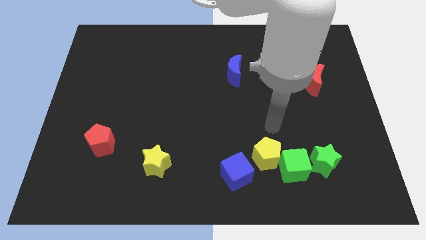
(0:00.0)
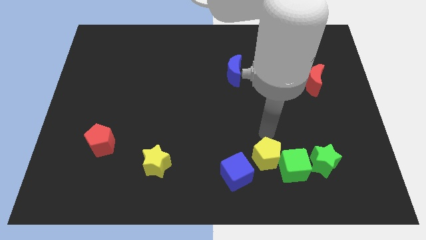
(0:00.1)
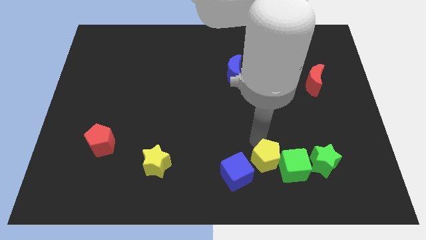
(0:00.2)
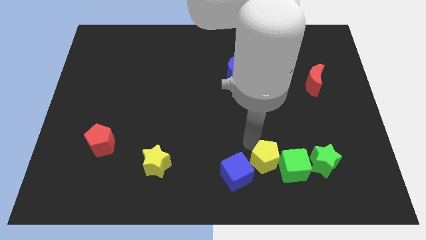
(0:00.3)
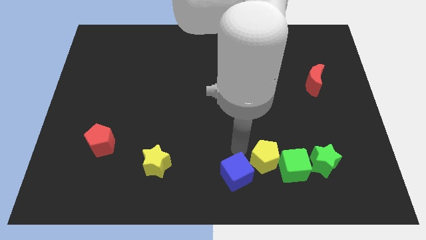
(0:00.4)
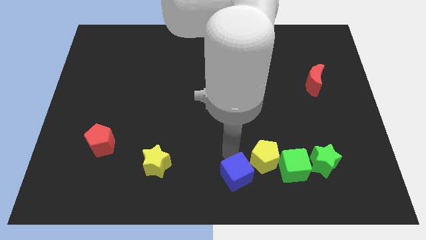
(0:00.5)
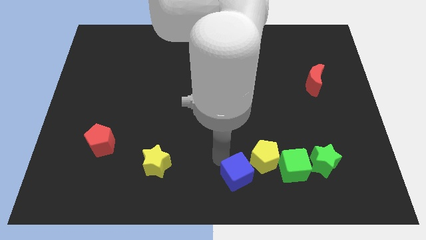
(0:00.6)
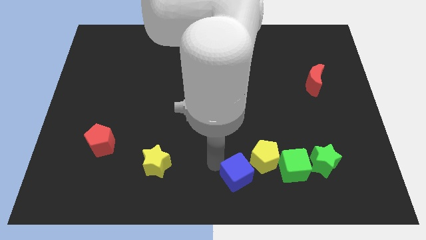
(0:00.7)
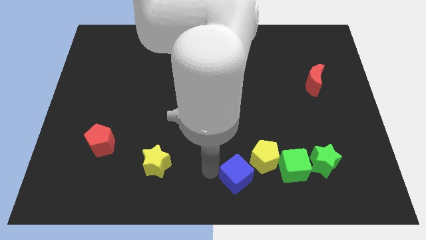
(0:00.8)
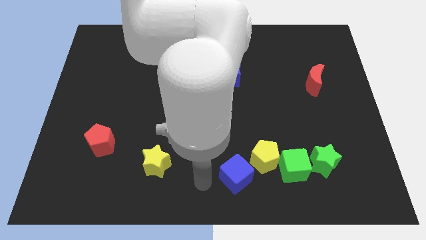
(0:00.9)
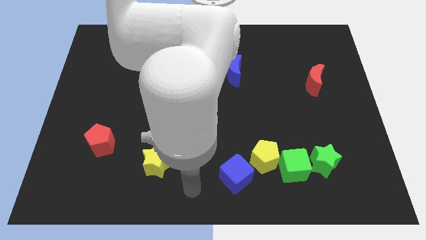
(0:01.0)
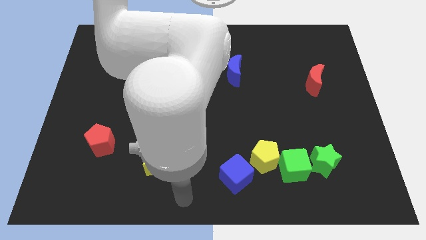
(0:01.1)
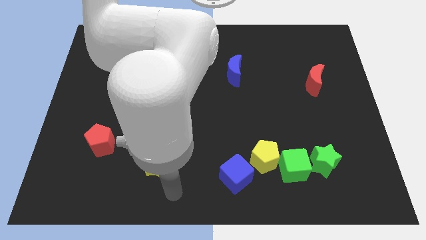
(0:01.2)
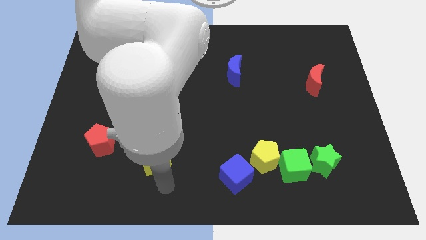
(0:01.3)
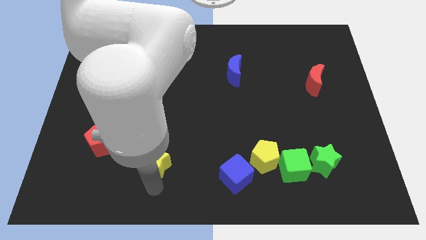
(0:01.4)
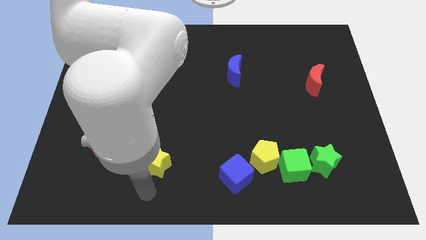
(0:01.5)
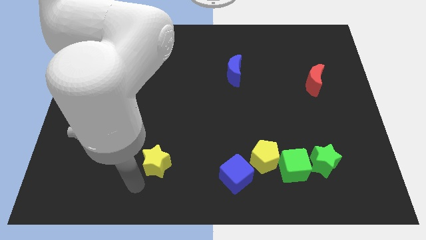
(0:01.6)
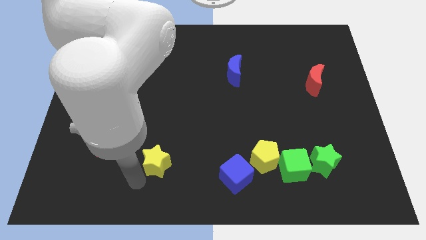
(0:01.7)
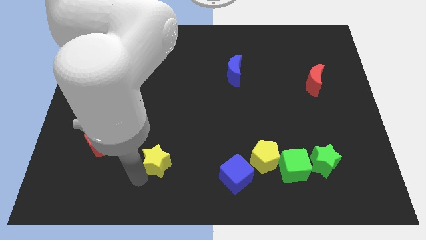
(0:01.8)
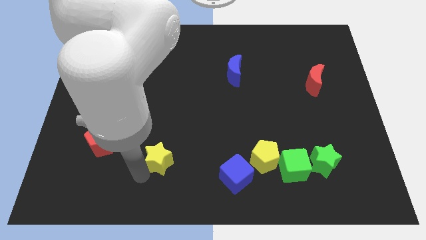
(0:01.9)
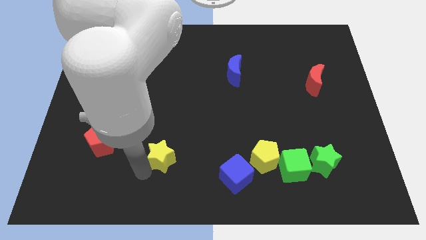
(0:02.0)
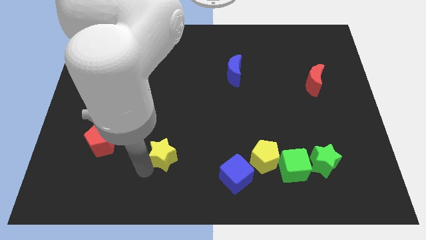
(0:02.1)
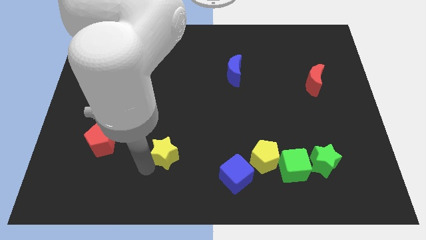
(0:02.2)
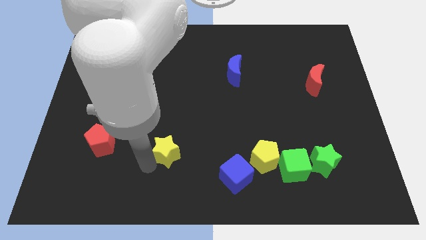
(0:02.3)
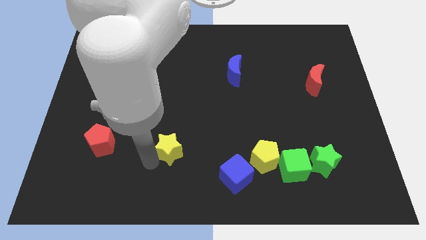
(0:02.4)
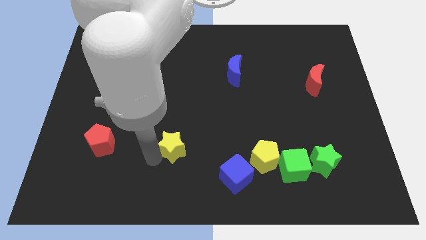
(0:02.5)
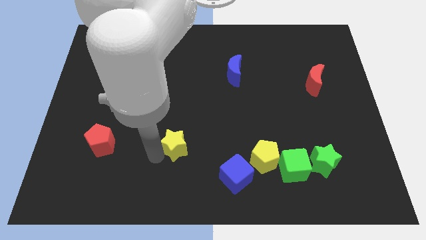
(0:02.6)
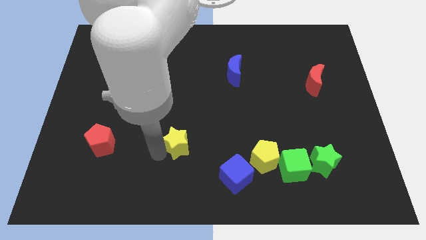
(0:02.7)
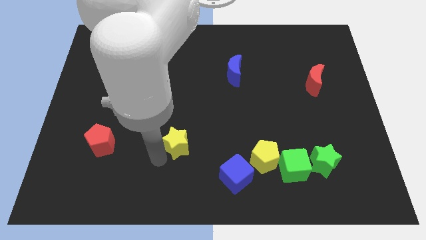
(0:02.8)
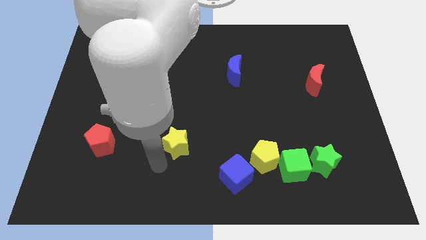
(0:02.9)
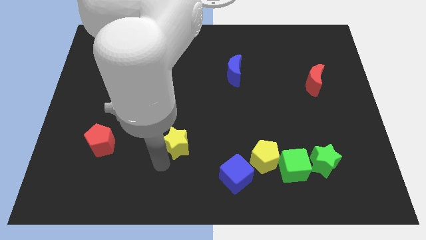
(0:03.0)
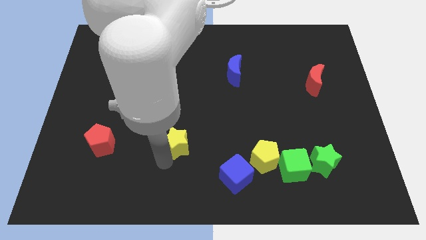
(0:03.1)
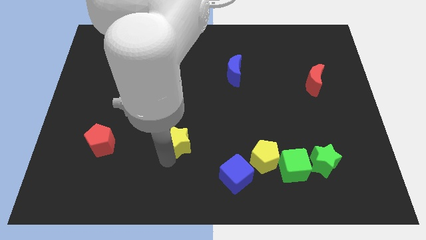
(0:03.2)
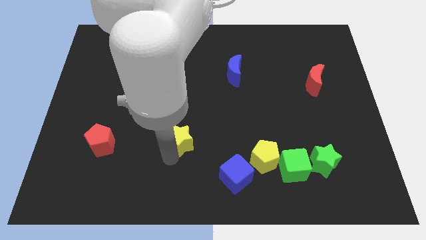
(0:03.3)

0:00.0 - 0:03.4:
slide the yellow star slightly upwards and to the right

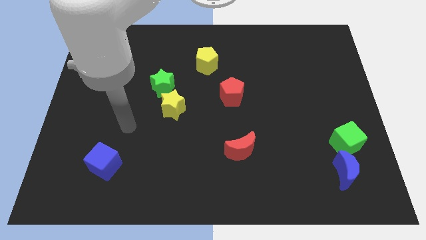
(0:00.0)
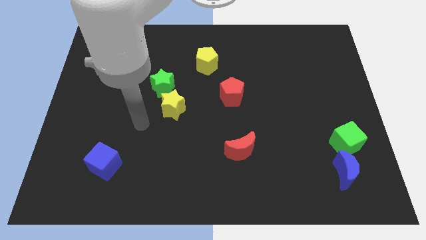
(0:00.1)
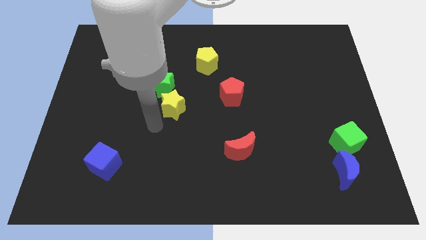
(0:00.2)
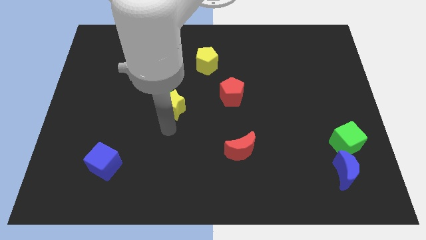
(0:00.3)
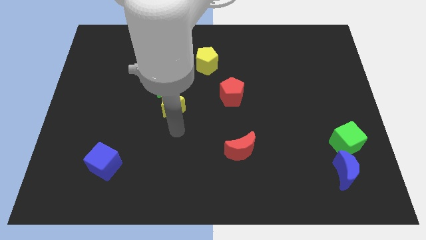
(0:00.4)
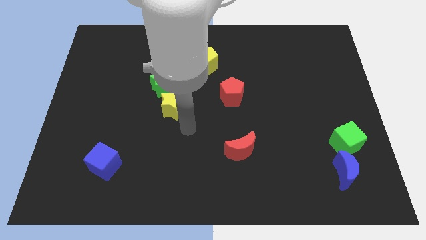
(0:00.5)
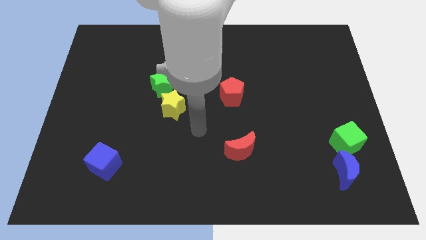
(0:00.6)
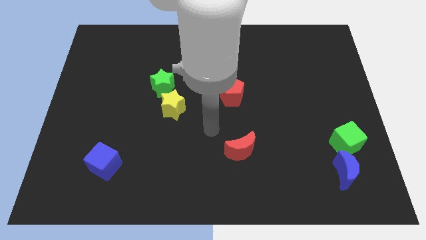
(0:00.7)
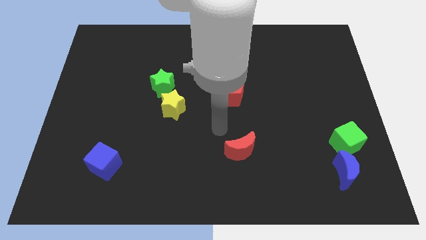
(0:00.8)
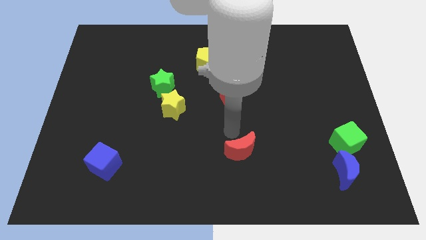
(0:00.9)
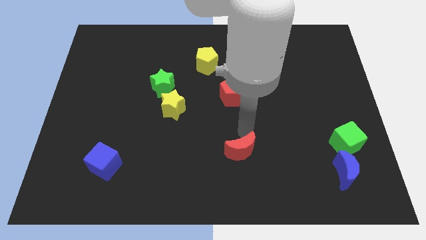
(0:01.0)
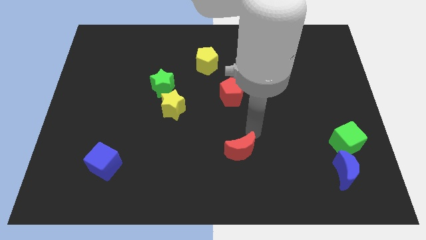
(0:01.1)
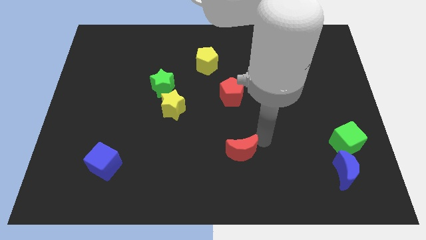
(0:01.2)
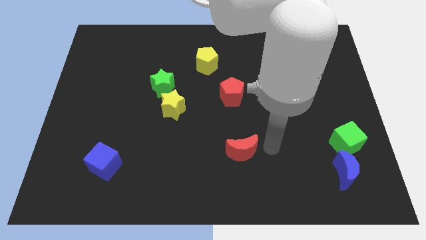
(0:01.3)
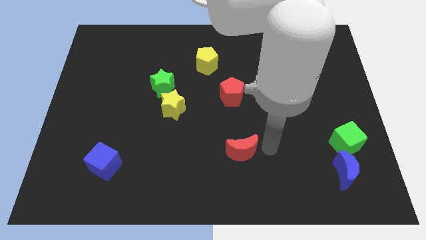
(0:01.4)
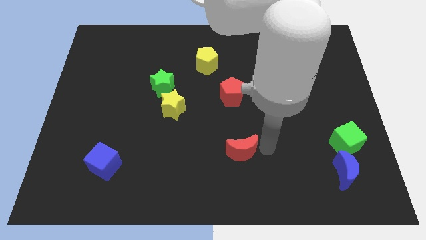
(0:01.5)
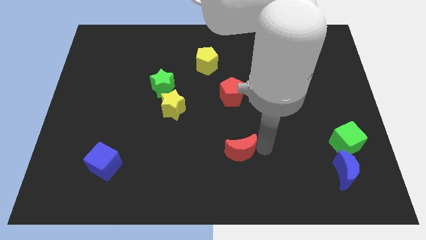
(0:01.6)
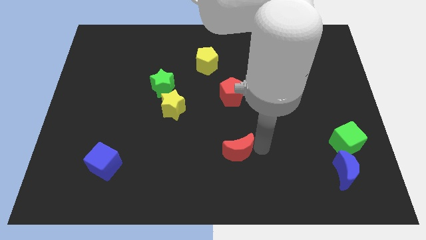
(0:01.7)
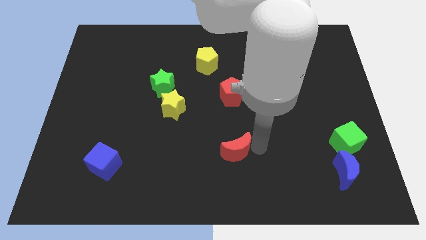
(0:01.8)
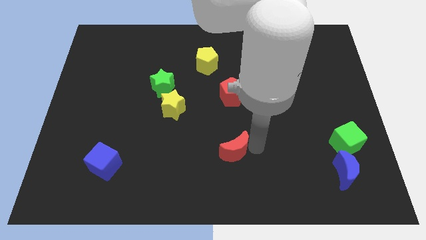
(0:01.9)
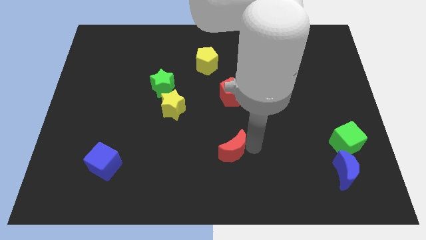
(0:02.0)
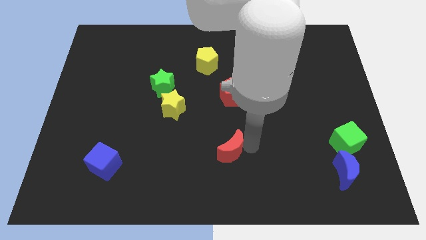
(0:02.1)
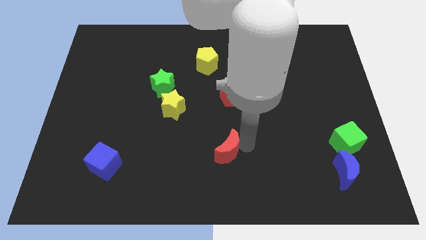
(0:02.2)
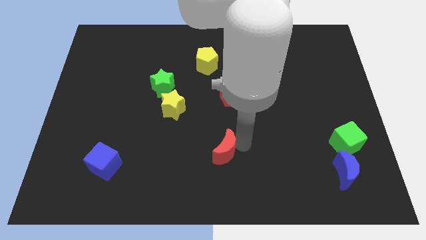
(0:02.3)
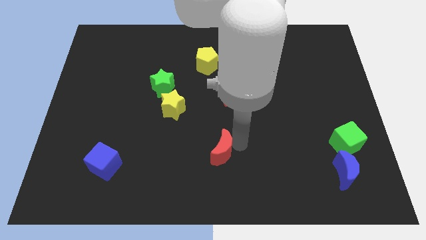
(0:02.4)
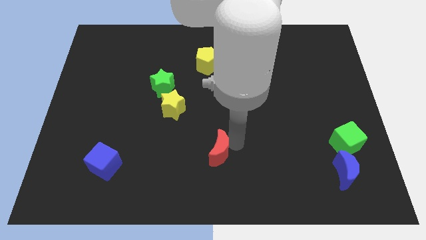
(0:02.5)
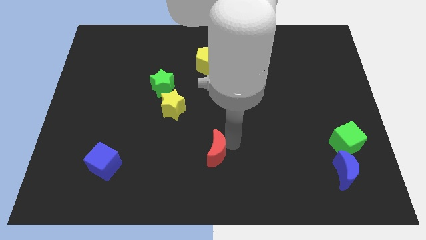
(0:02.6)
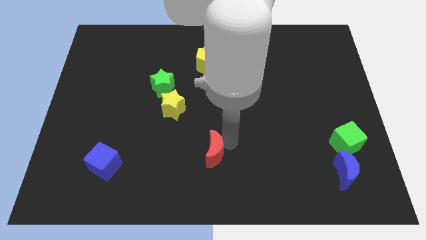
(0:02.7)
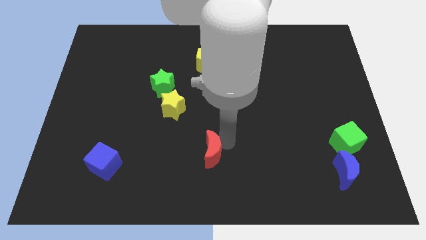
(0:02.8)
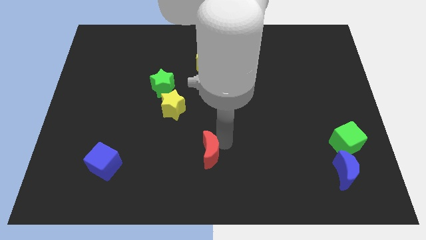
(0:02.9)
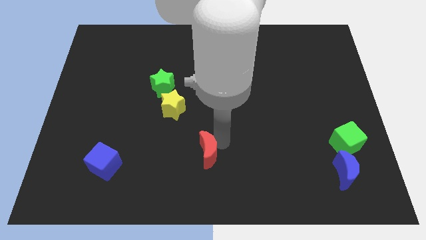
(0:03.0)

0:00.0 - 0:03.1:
slightly move the red moon to the left

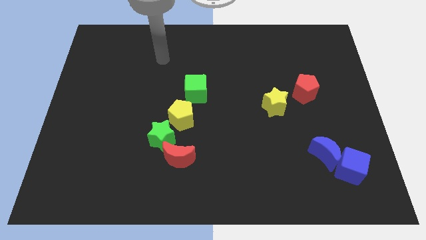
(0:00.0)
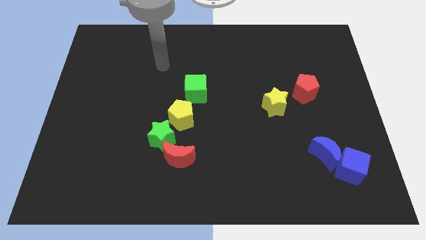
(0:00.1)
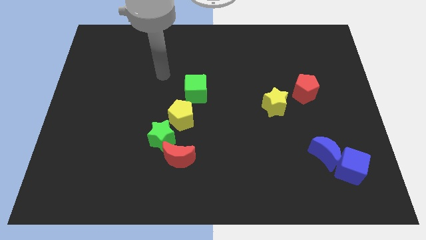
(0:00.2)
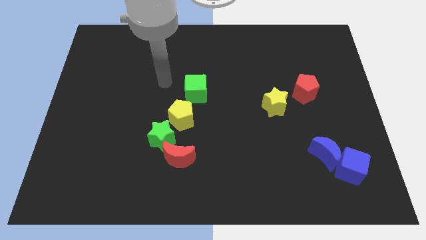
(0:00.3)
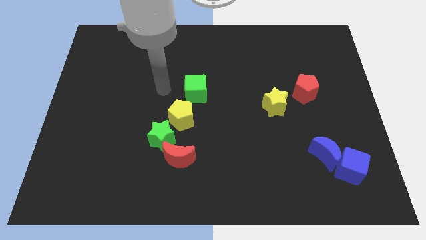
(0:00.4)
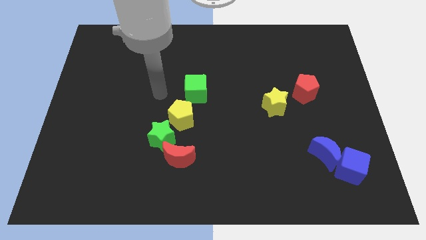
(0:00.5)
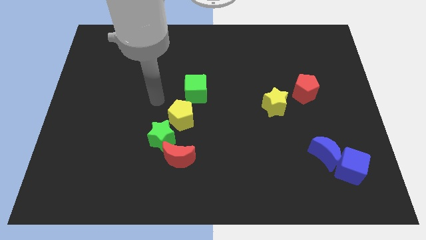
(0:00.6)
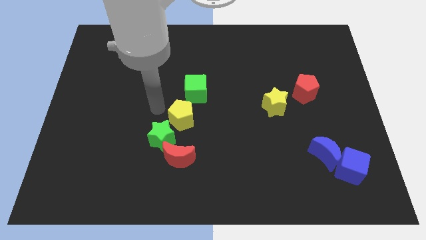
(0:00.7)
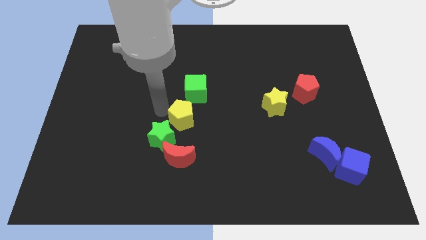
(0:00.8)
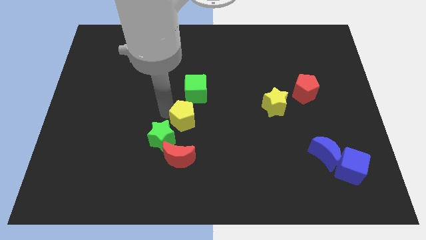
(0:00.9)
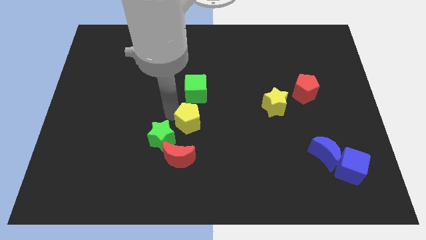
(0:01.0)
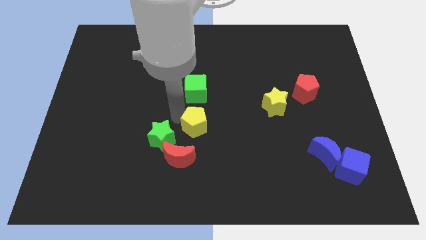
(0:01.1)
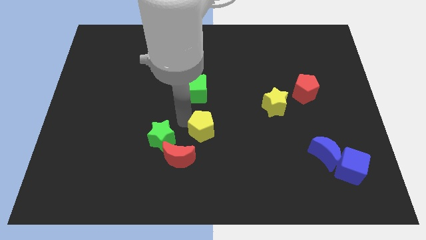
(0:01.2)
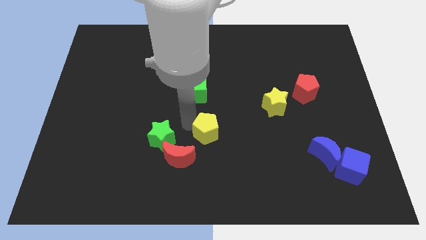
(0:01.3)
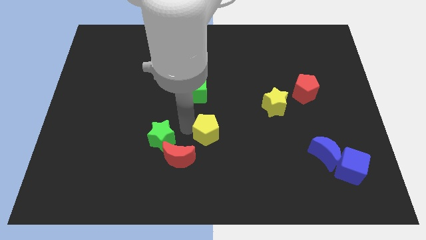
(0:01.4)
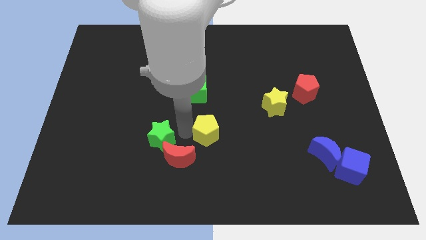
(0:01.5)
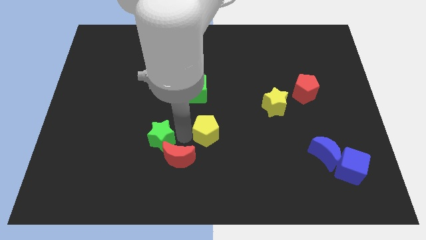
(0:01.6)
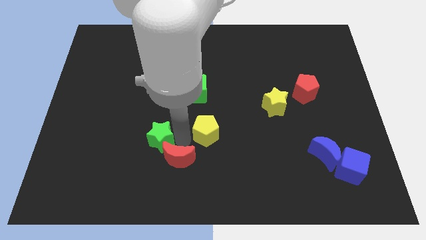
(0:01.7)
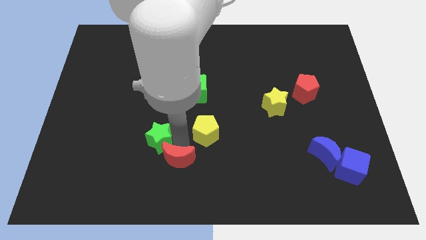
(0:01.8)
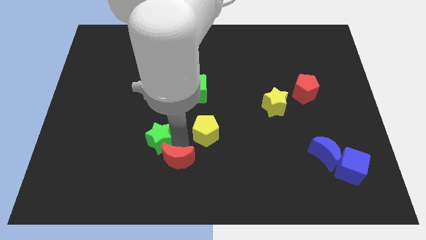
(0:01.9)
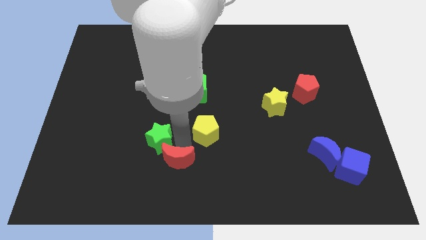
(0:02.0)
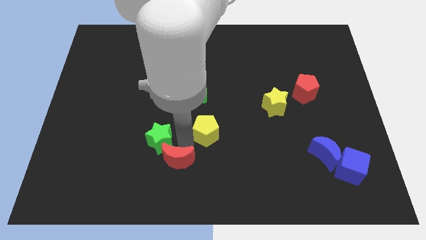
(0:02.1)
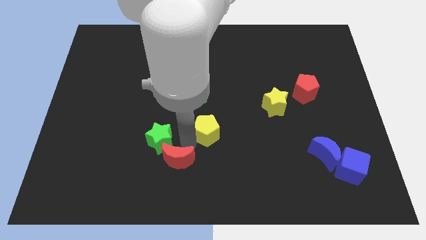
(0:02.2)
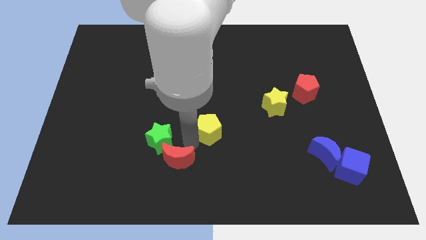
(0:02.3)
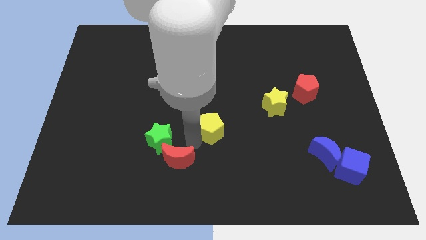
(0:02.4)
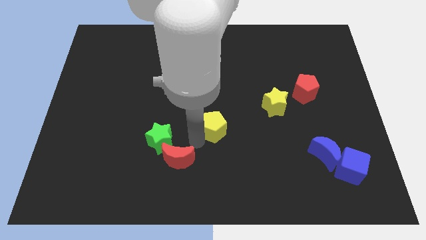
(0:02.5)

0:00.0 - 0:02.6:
push the yellow pentagon right somewhat
